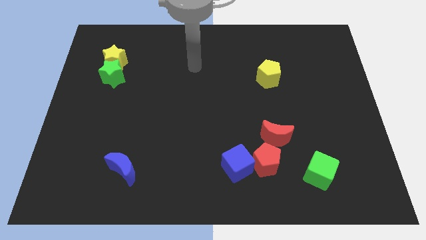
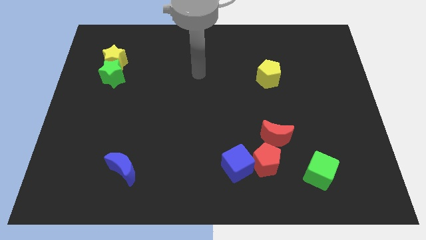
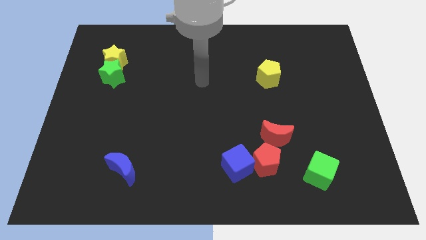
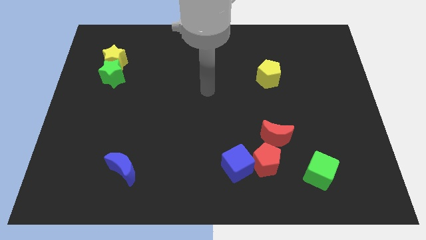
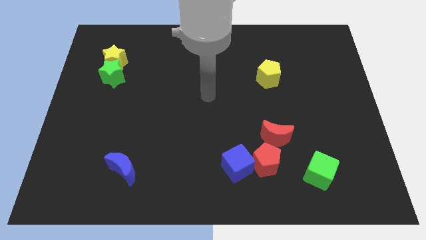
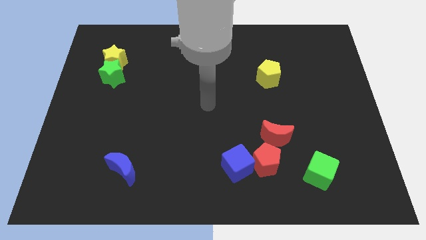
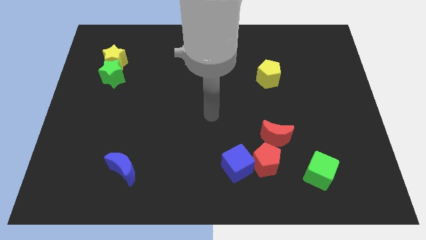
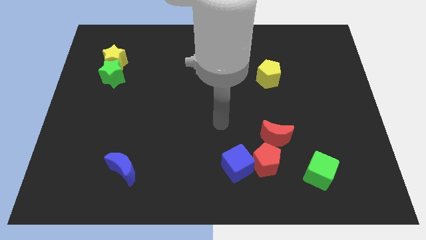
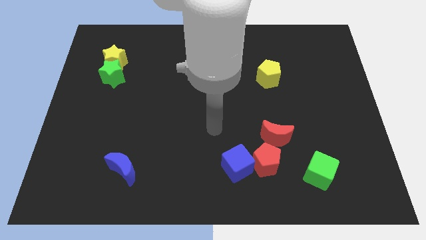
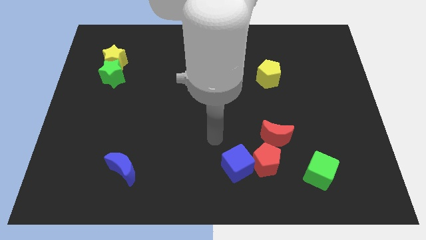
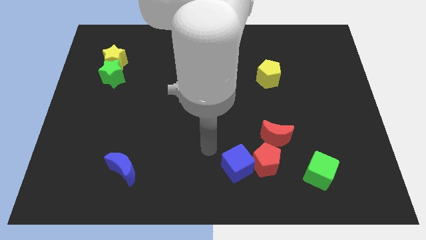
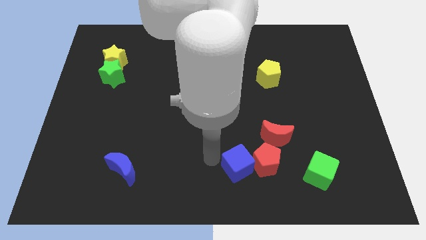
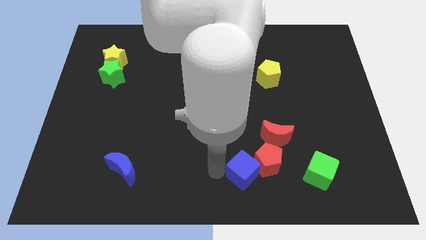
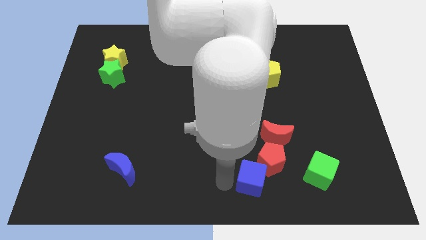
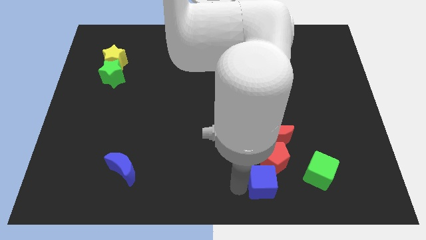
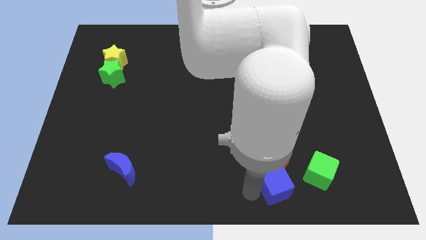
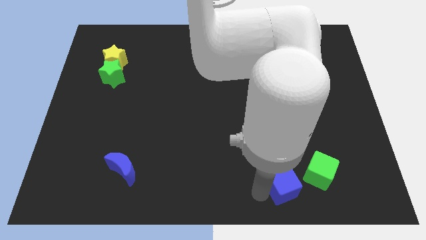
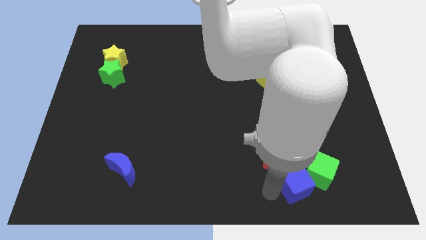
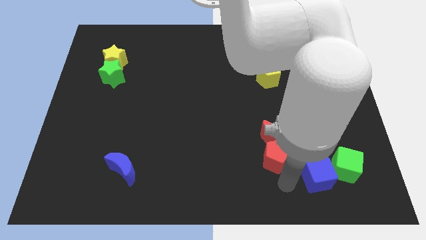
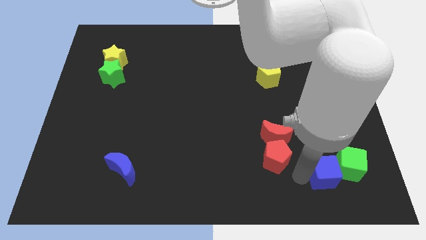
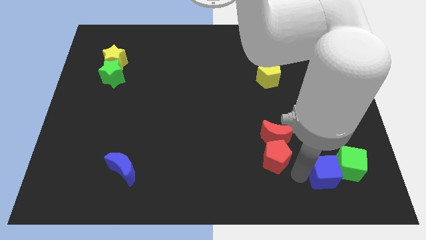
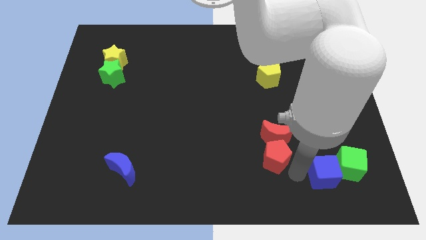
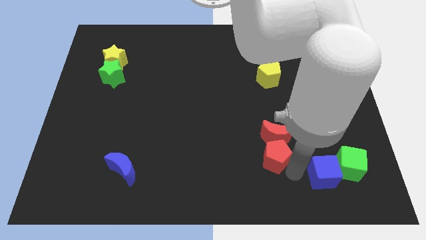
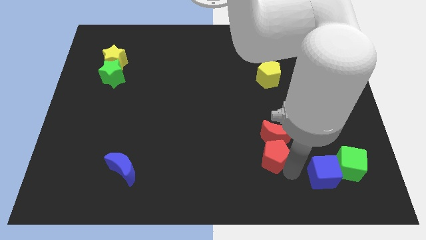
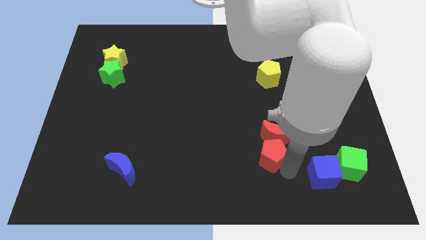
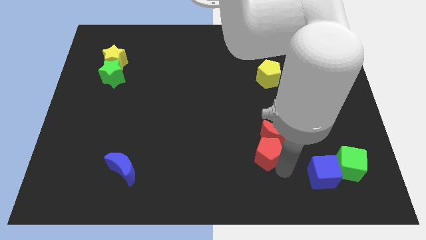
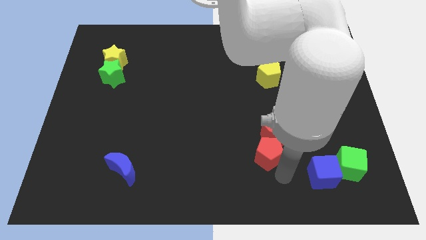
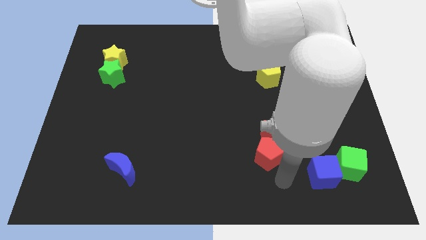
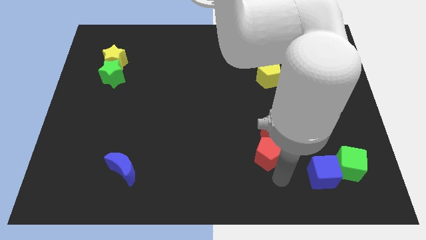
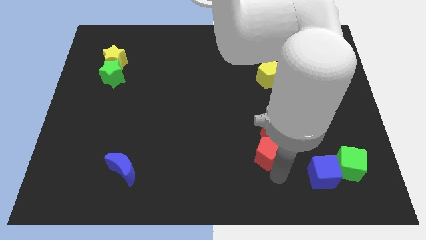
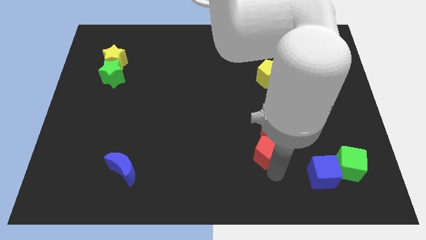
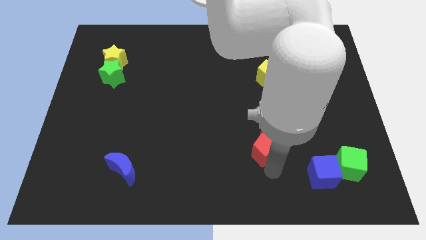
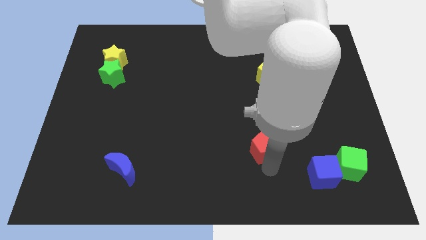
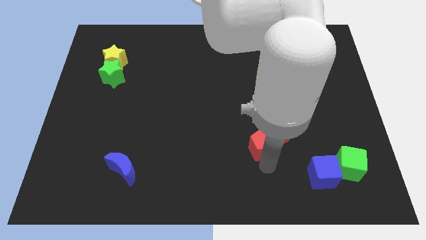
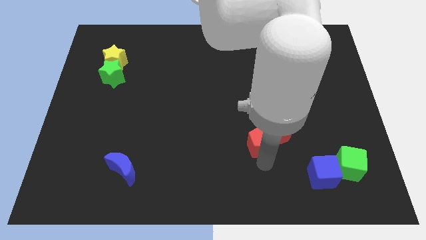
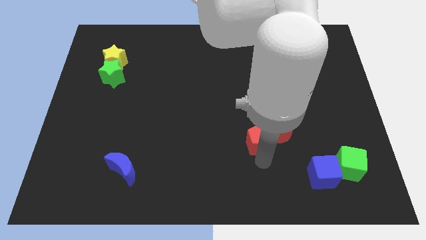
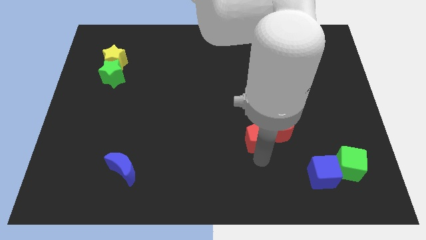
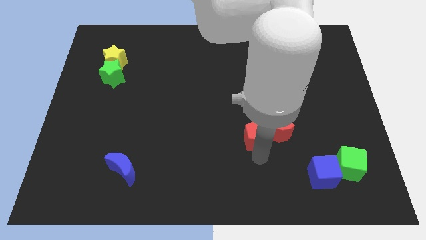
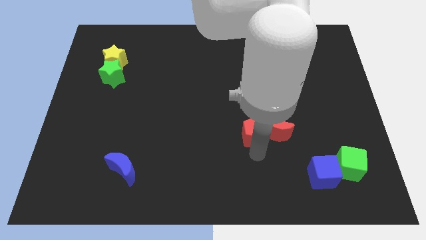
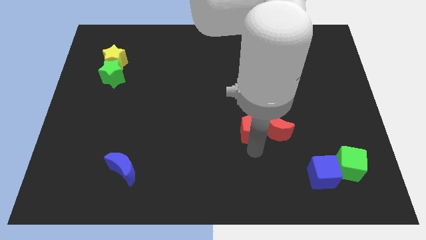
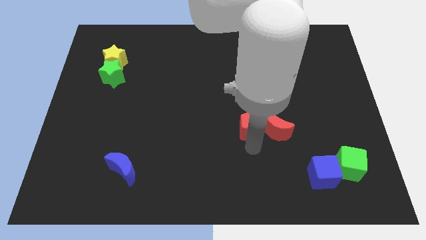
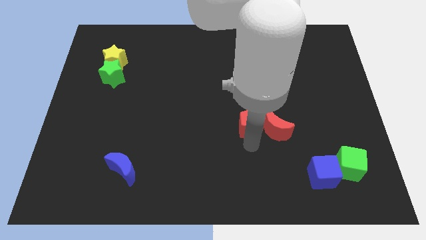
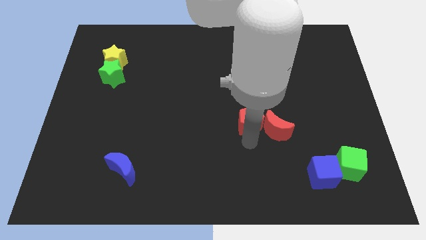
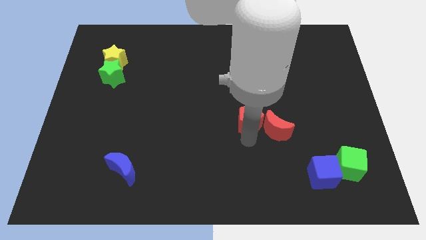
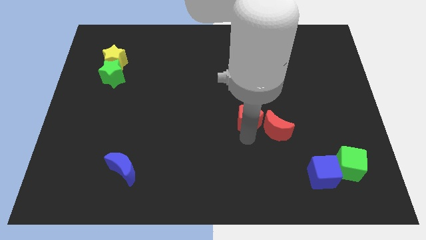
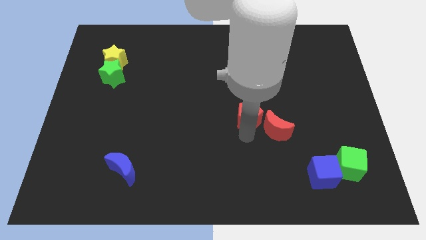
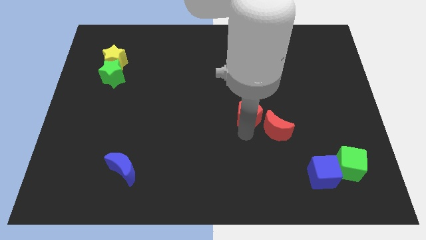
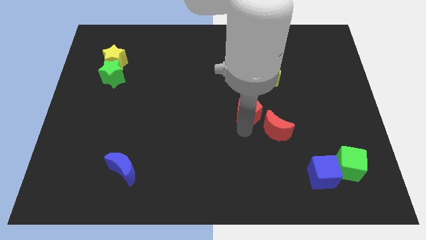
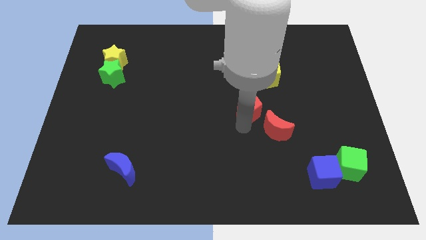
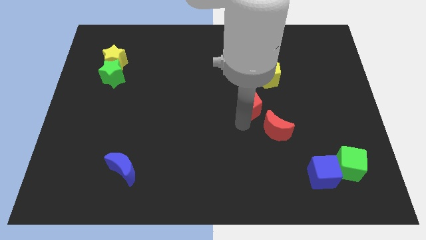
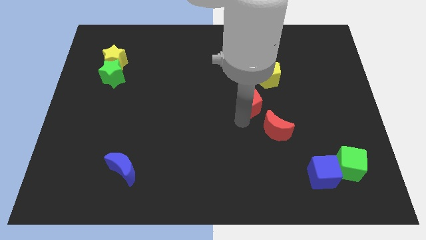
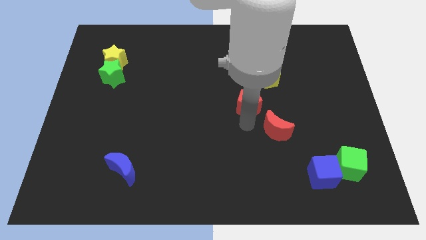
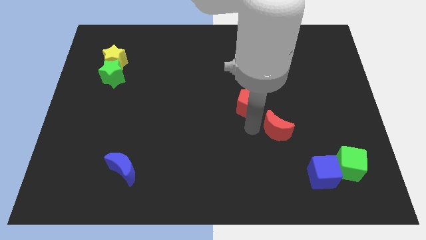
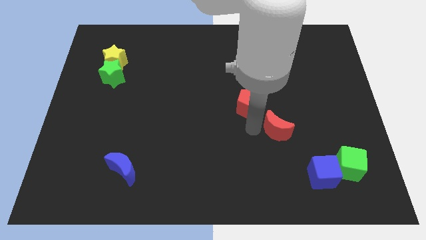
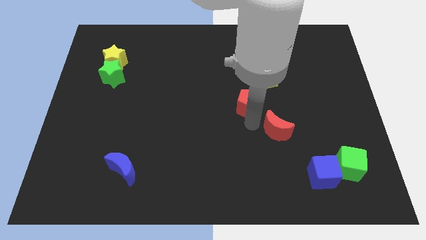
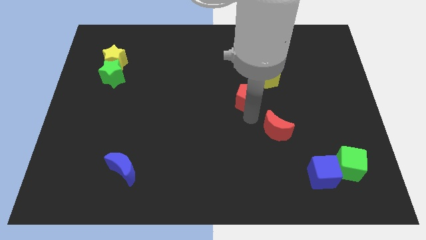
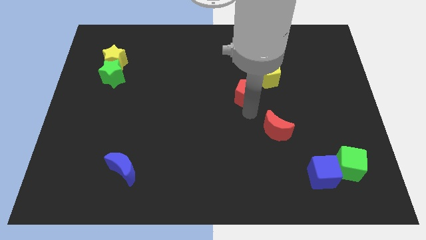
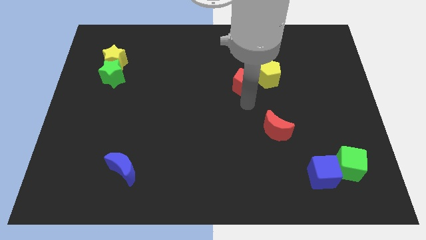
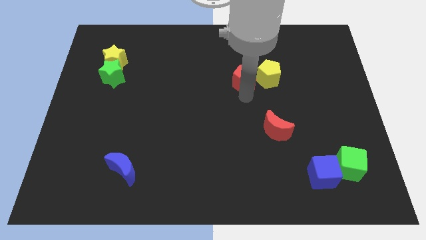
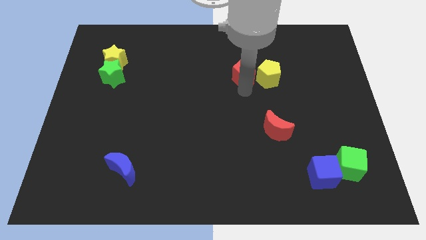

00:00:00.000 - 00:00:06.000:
push the red pentagon to the top left side of the yellow pentagon
